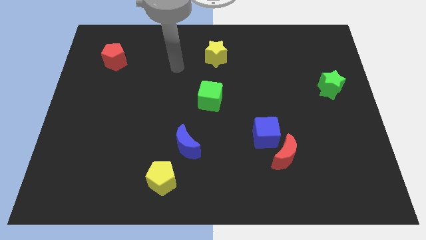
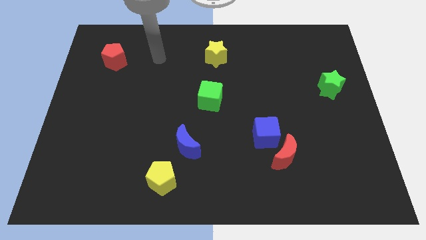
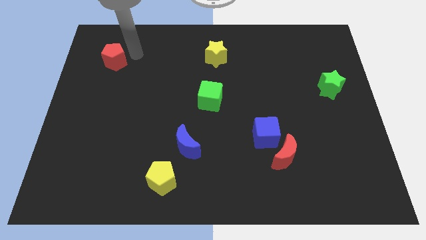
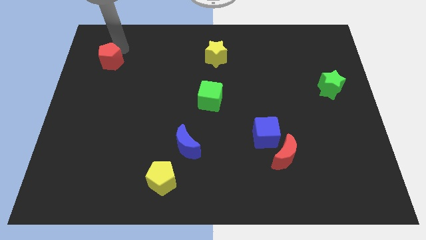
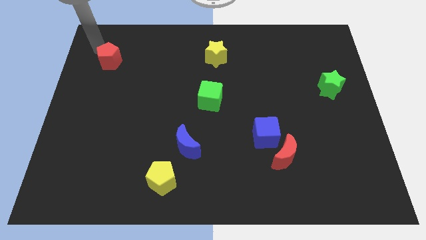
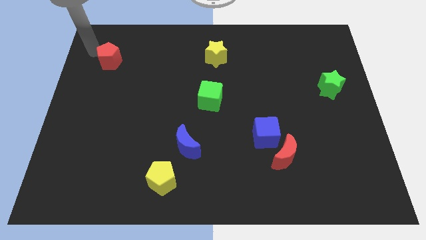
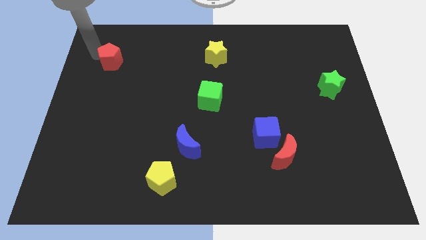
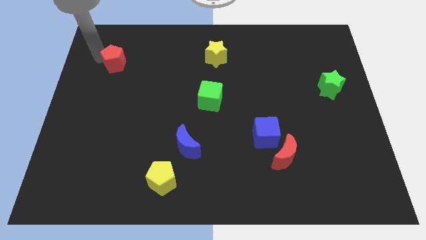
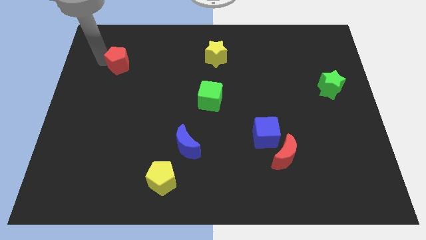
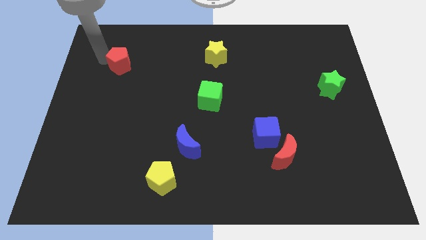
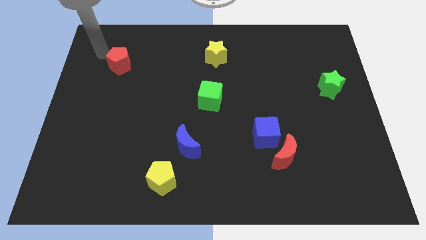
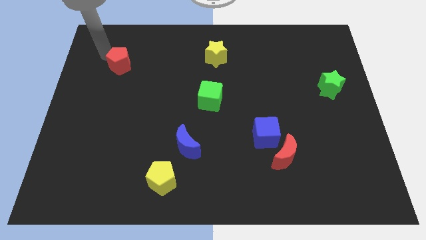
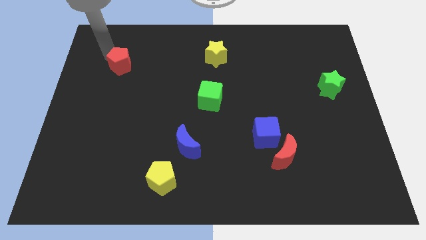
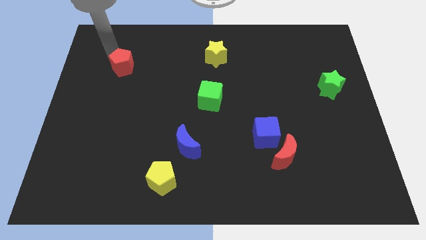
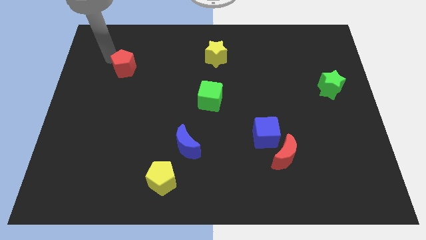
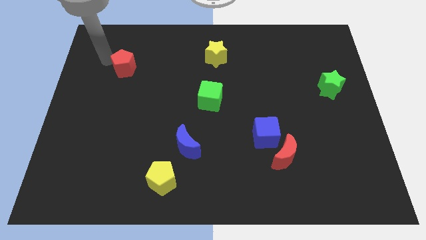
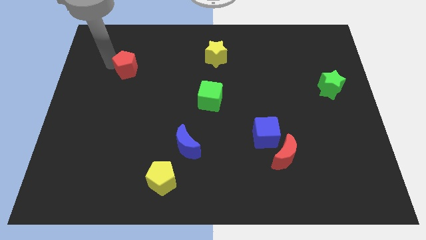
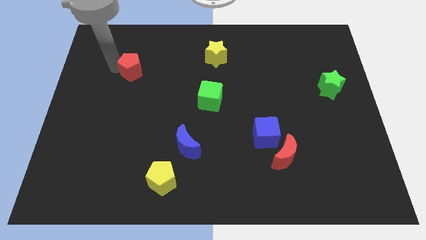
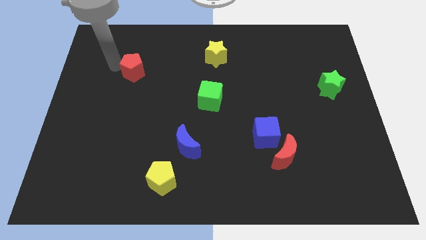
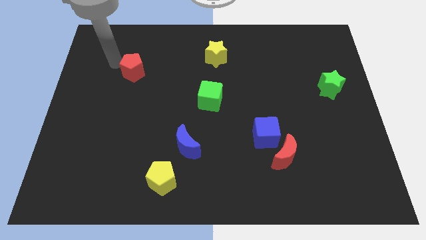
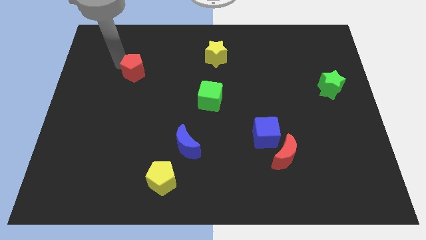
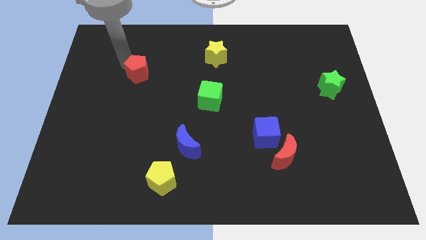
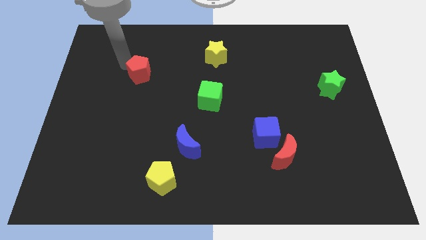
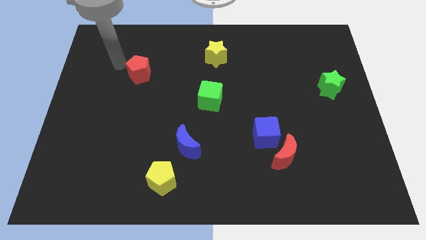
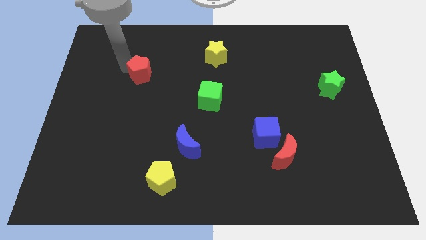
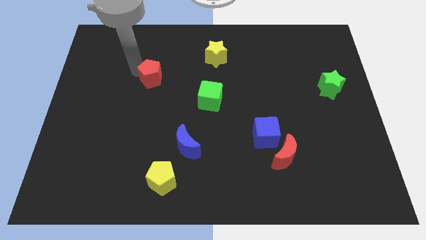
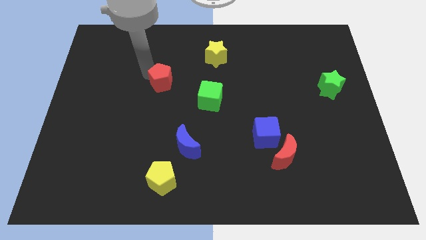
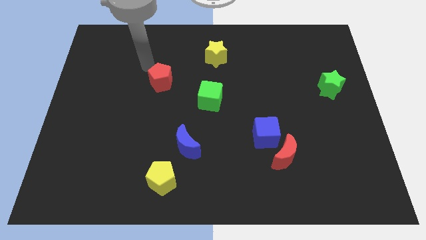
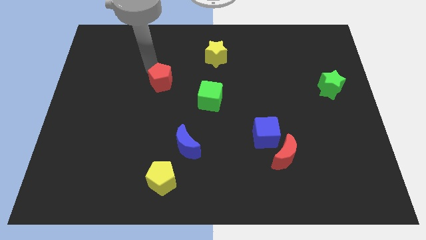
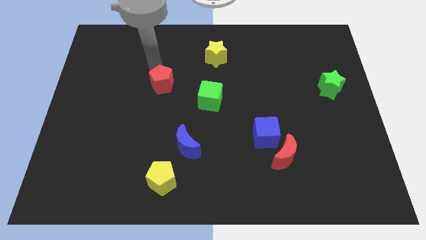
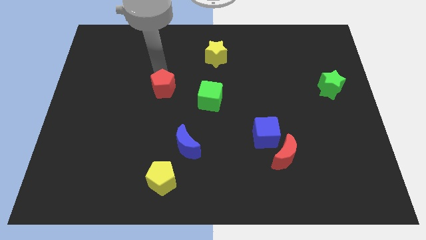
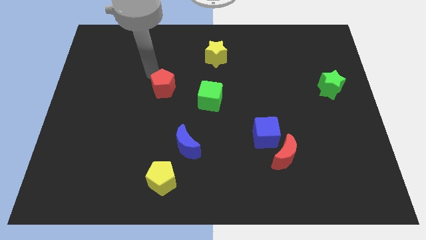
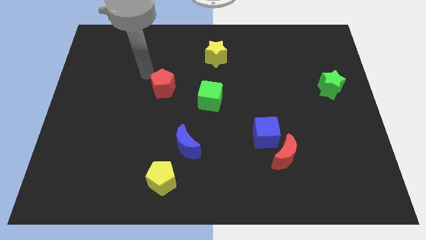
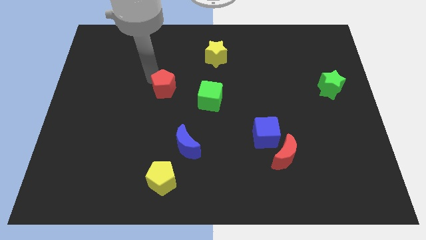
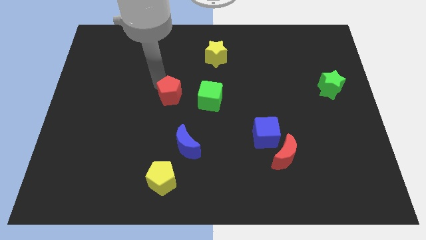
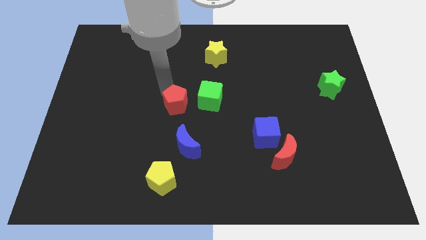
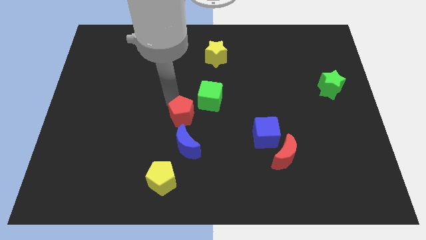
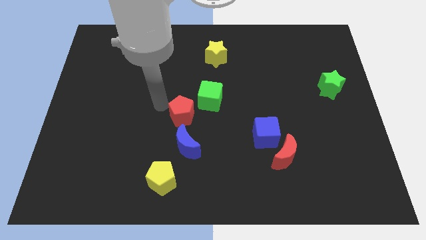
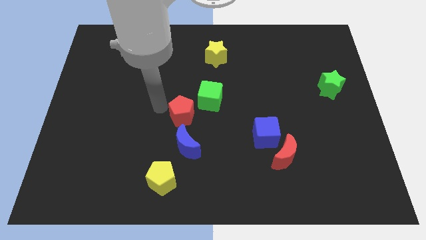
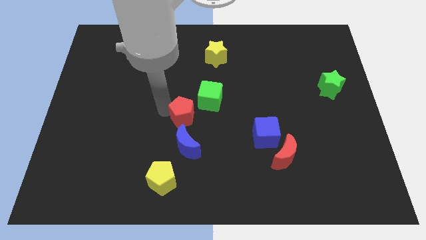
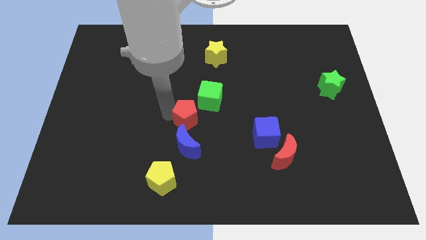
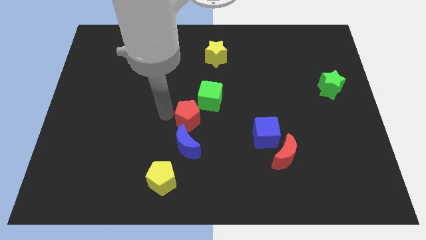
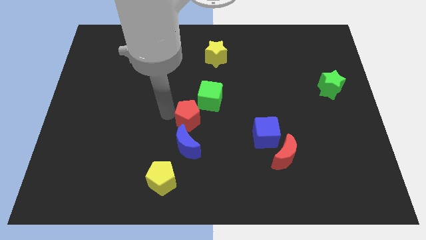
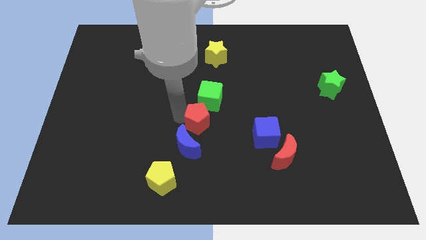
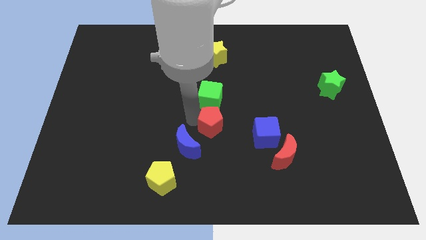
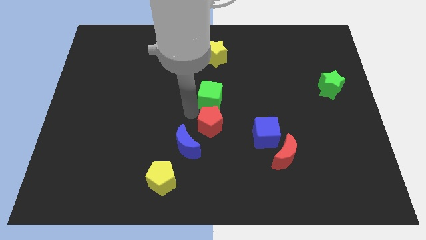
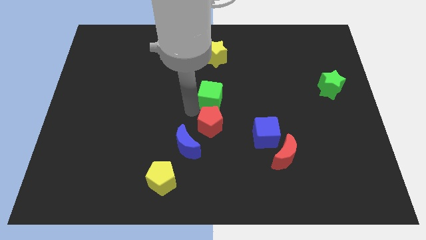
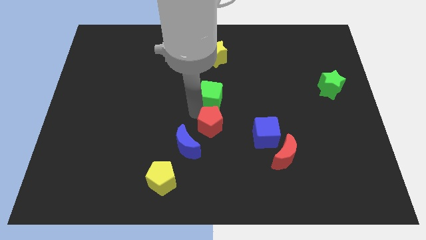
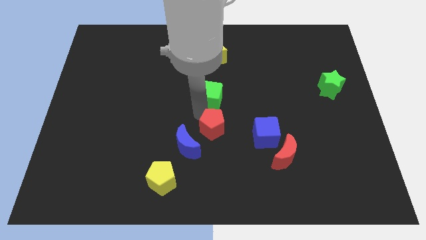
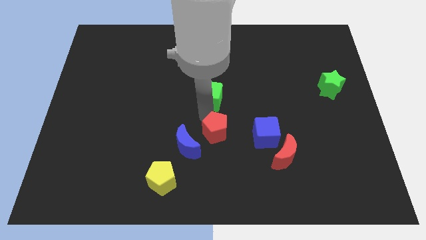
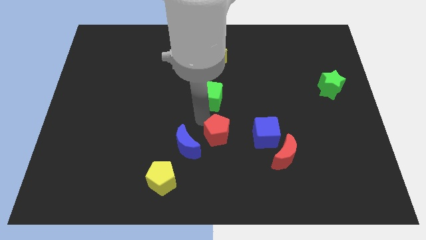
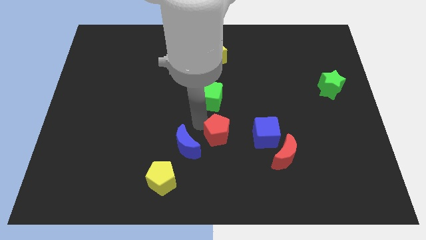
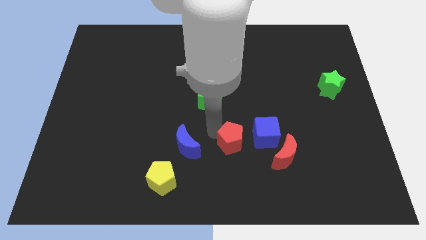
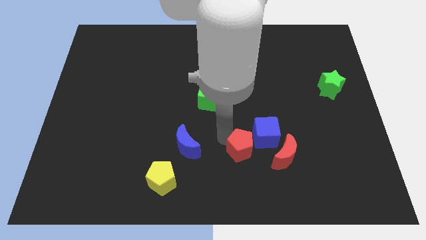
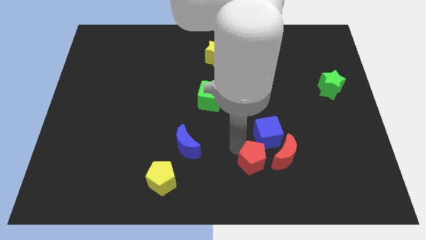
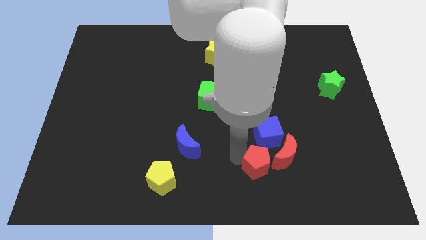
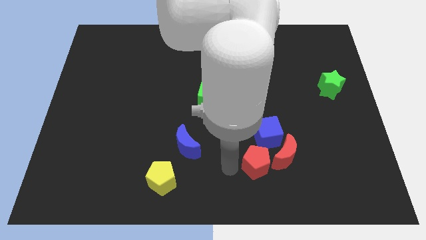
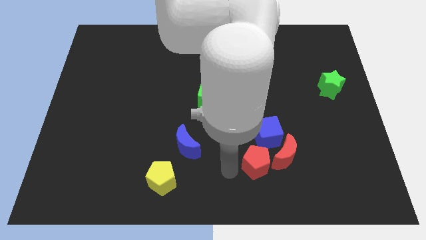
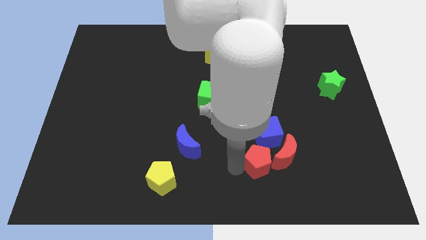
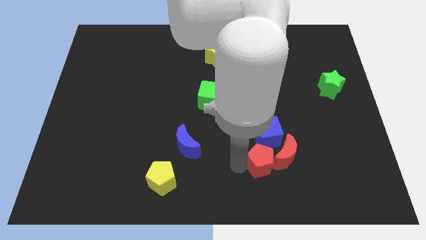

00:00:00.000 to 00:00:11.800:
put the red pentagon close to the red moon

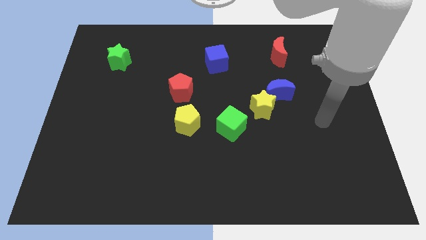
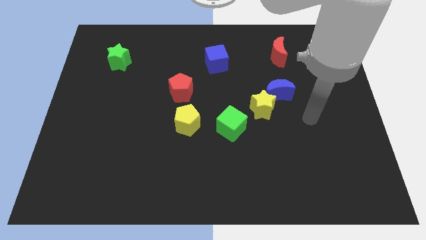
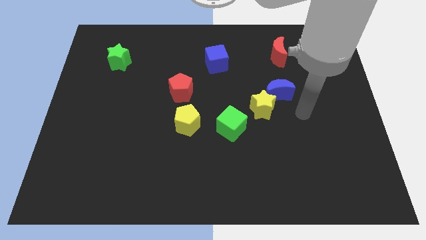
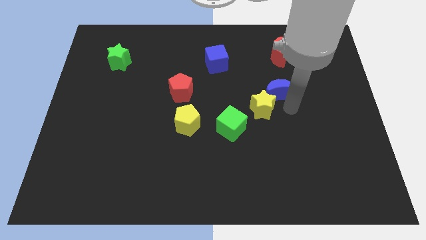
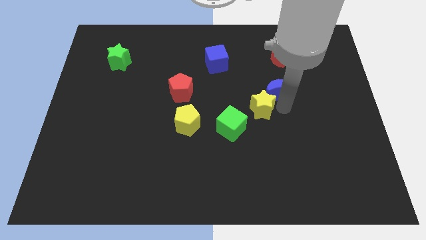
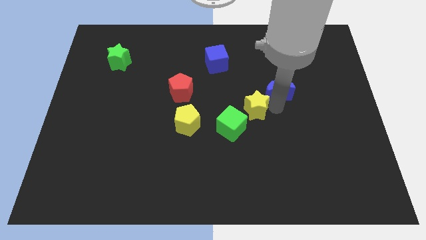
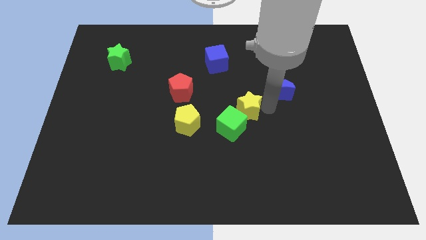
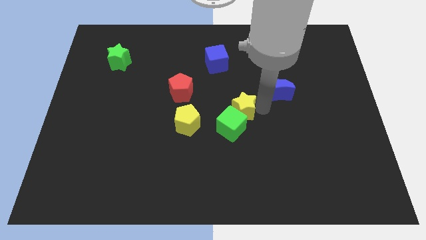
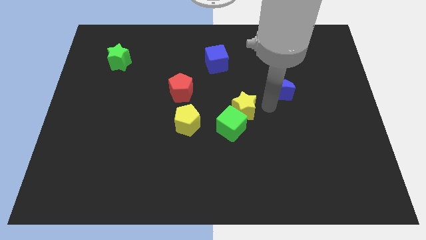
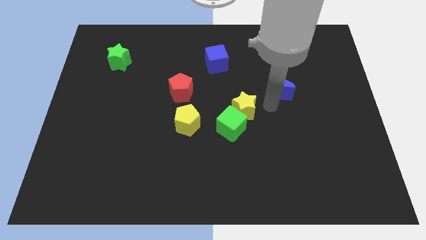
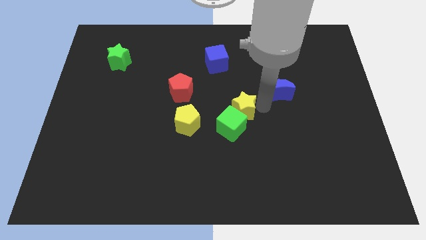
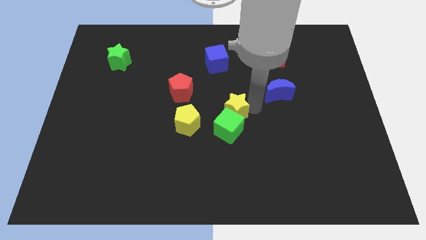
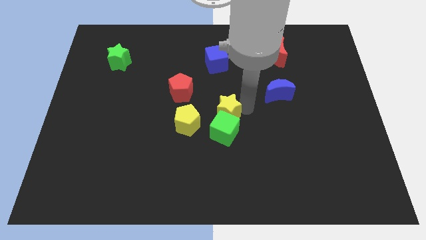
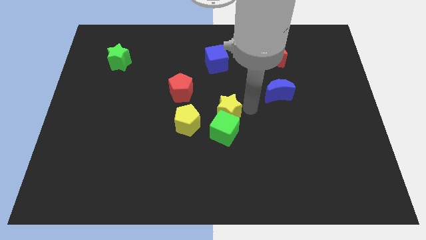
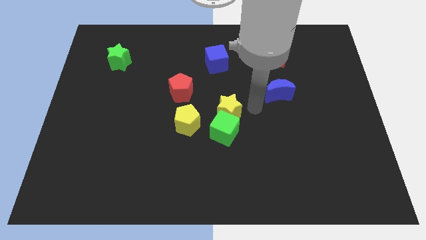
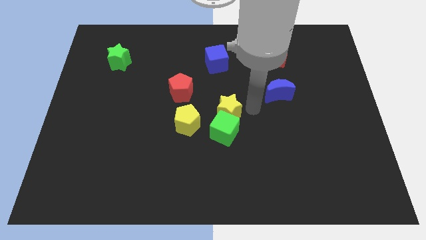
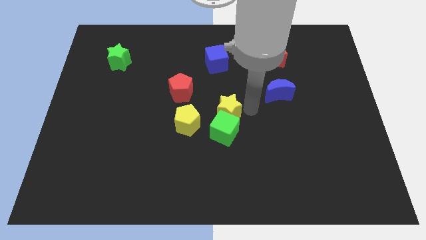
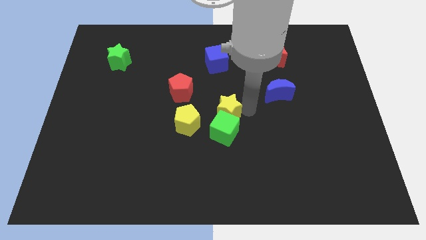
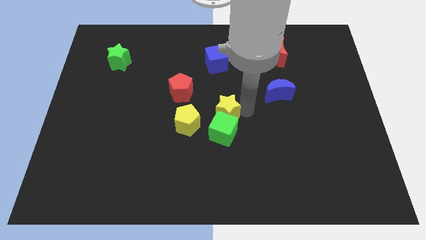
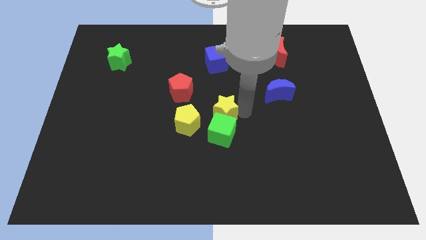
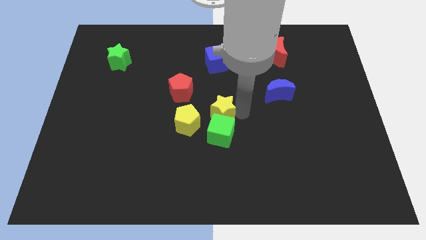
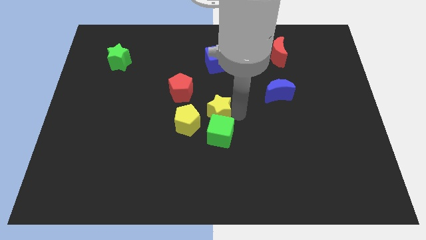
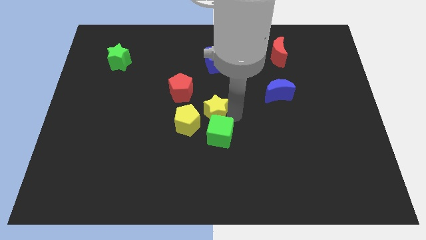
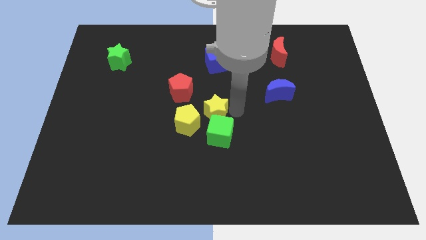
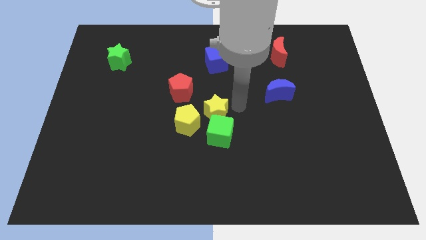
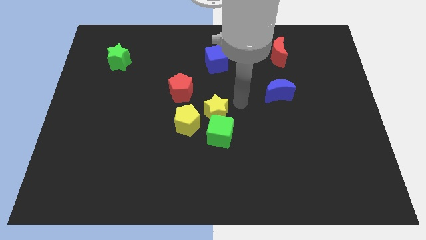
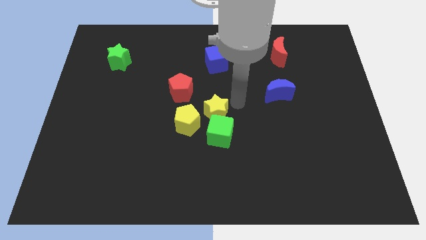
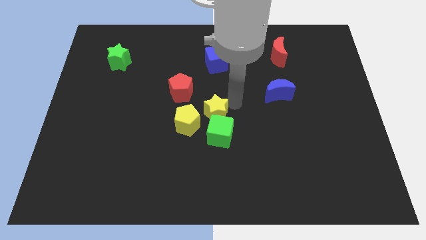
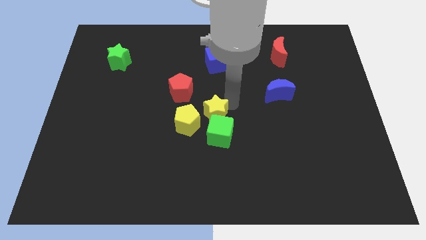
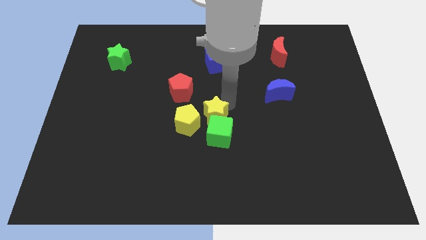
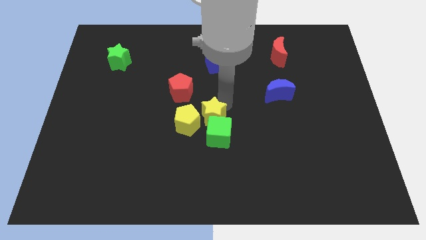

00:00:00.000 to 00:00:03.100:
slide the yellow star close to the yellow pentagon
